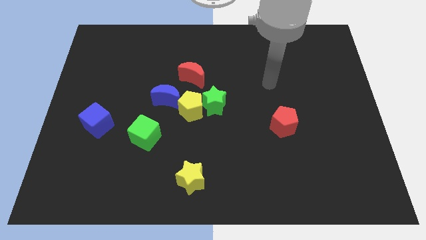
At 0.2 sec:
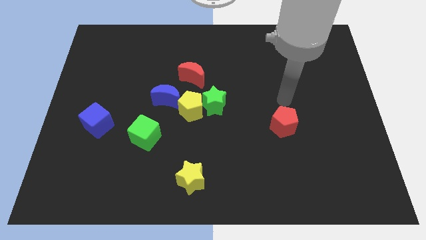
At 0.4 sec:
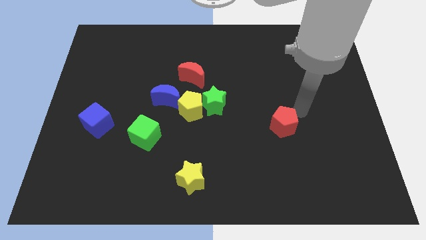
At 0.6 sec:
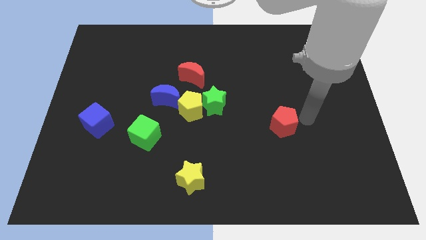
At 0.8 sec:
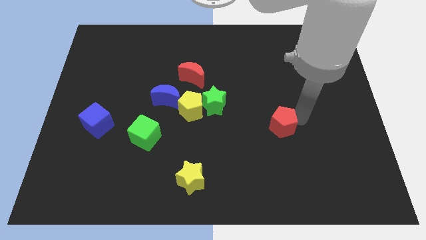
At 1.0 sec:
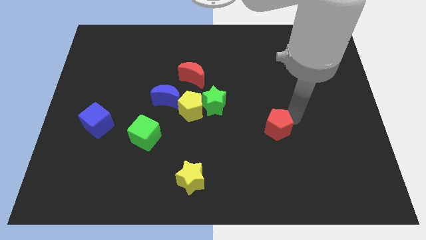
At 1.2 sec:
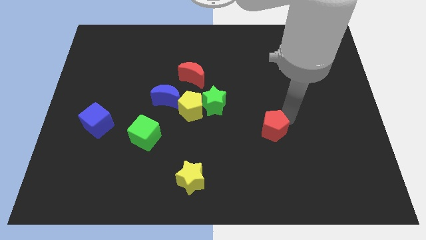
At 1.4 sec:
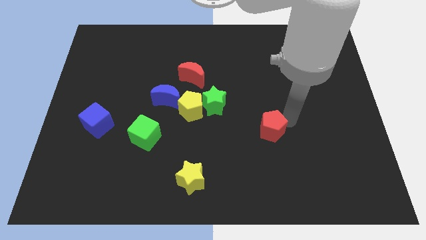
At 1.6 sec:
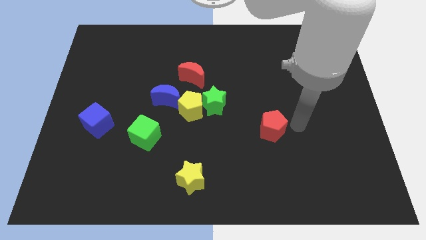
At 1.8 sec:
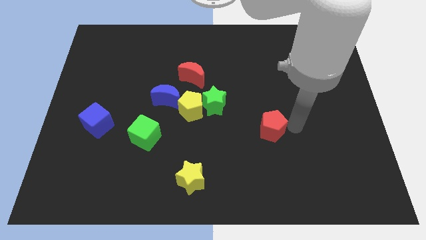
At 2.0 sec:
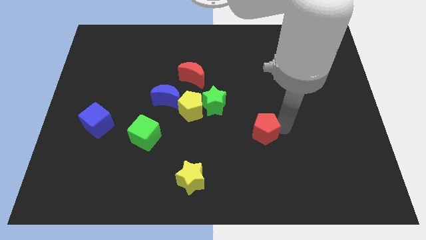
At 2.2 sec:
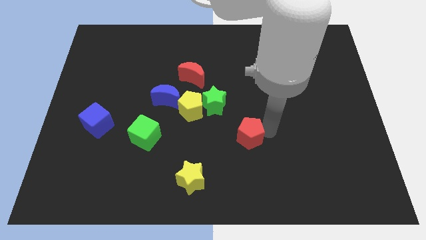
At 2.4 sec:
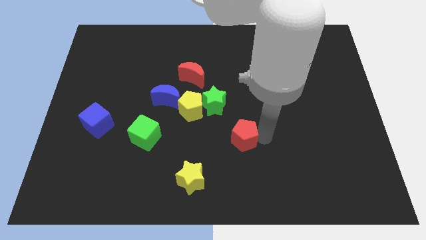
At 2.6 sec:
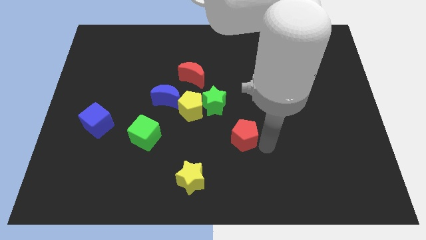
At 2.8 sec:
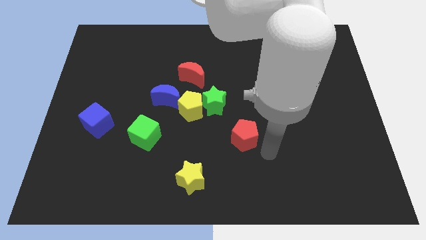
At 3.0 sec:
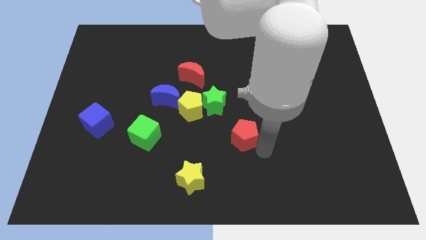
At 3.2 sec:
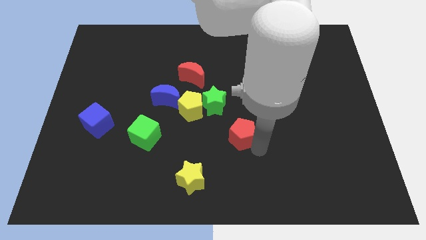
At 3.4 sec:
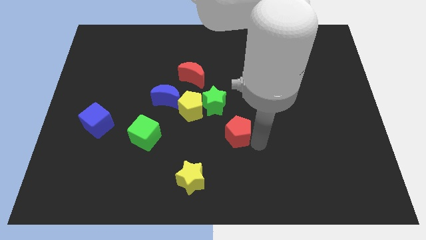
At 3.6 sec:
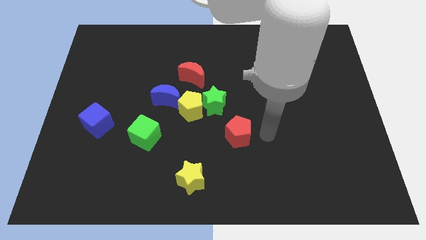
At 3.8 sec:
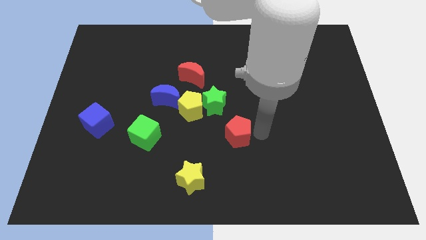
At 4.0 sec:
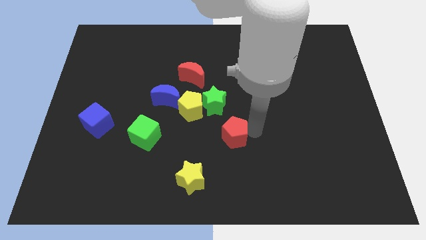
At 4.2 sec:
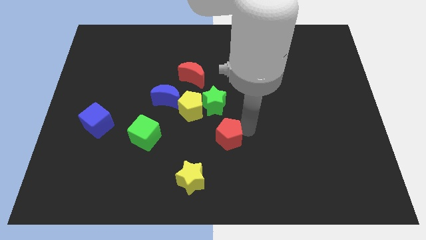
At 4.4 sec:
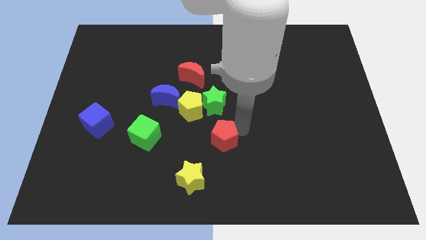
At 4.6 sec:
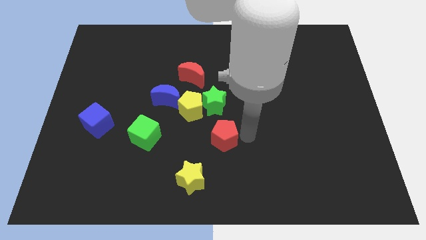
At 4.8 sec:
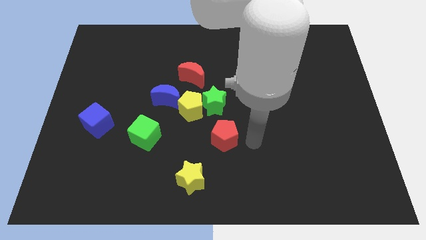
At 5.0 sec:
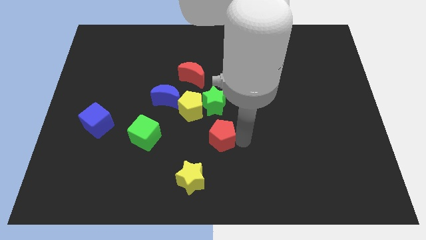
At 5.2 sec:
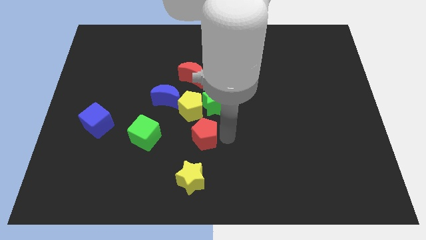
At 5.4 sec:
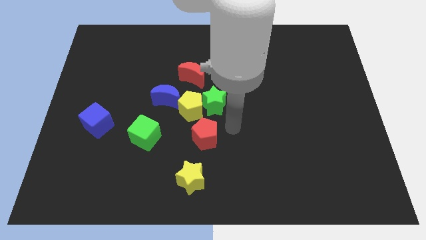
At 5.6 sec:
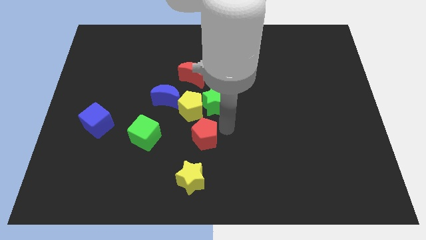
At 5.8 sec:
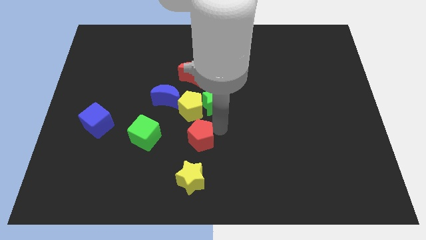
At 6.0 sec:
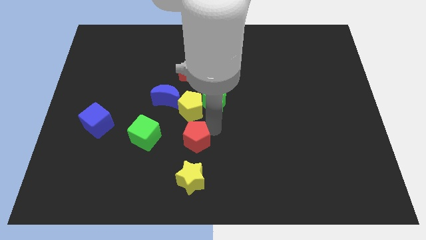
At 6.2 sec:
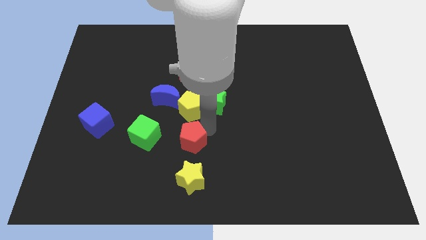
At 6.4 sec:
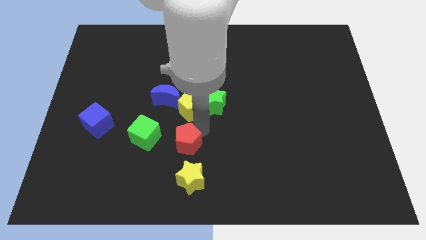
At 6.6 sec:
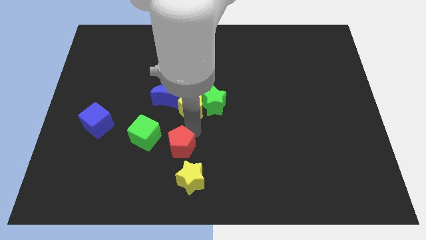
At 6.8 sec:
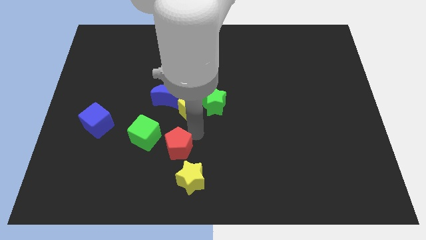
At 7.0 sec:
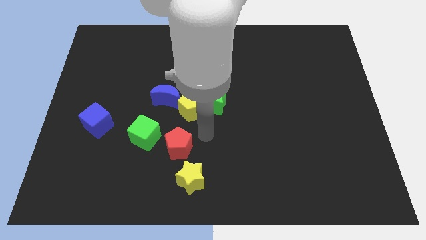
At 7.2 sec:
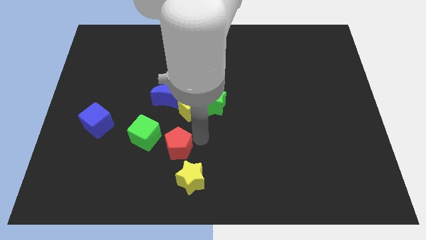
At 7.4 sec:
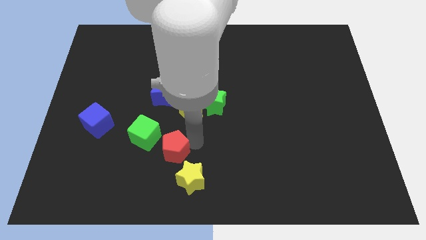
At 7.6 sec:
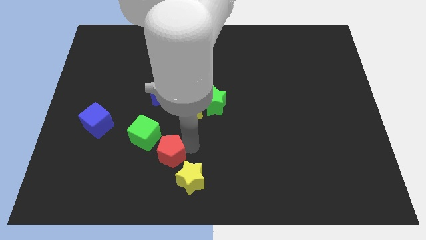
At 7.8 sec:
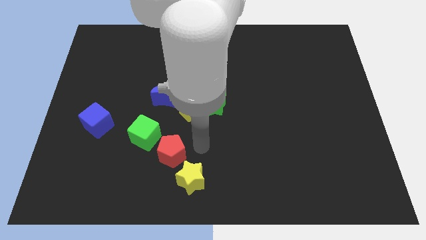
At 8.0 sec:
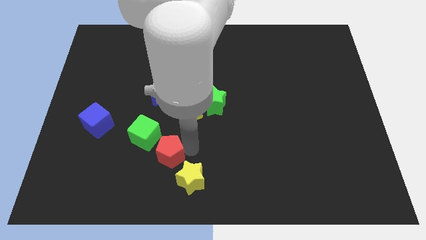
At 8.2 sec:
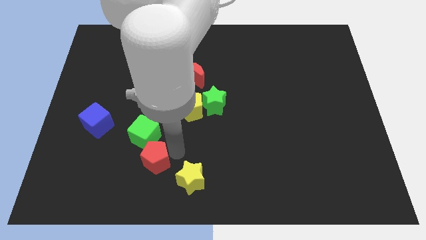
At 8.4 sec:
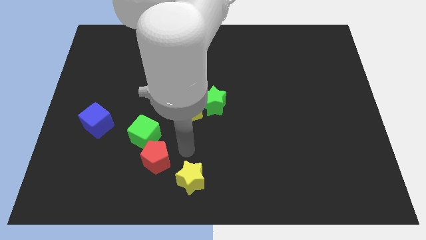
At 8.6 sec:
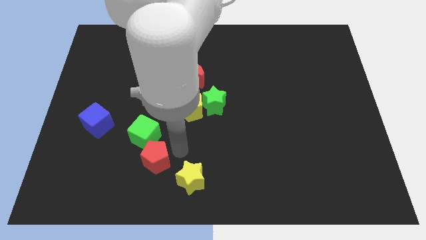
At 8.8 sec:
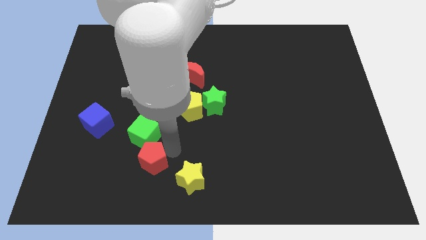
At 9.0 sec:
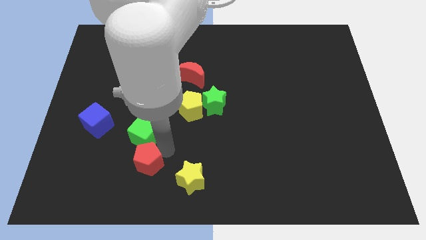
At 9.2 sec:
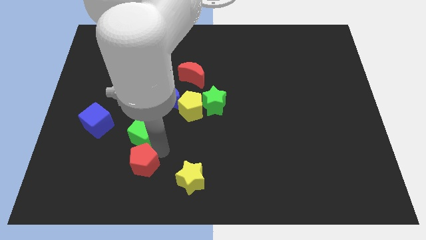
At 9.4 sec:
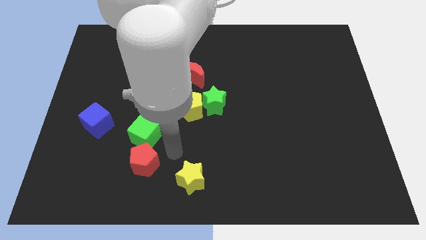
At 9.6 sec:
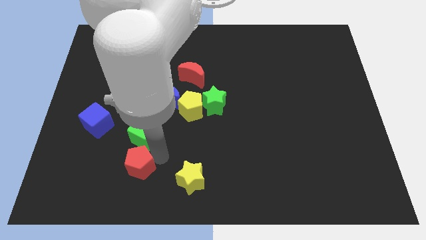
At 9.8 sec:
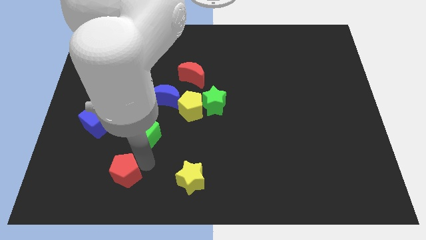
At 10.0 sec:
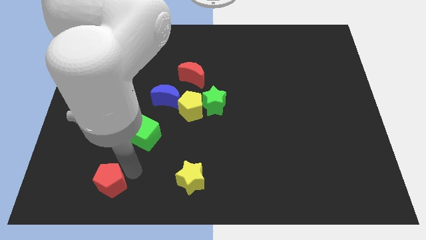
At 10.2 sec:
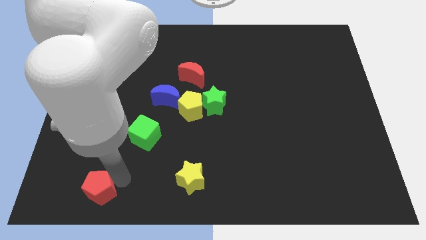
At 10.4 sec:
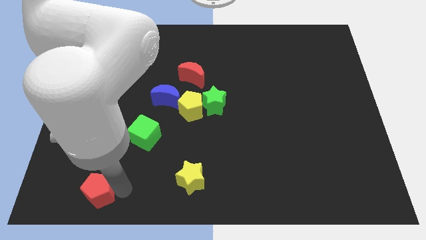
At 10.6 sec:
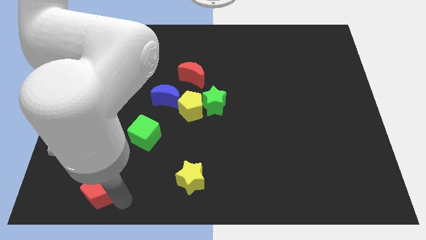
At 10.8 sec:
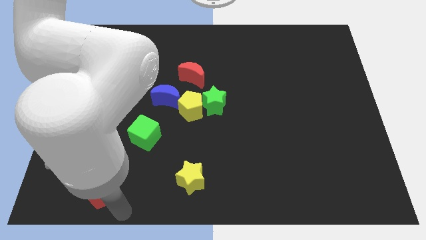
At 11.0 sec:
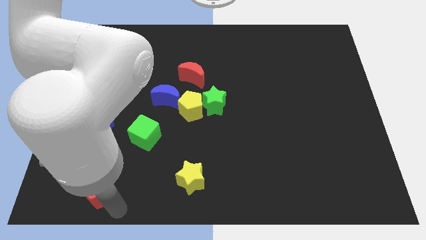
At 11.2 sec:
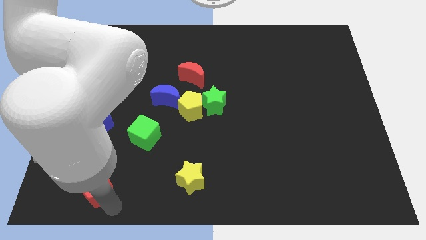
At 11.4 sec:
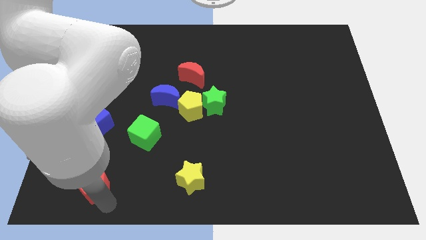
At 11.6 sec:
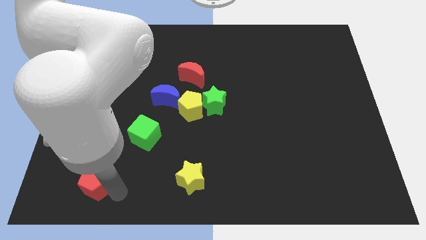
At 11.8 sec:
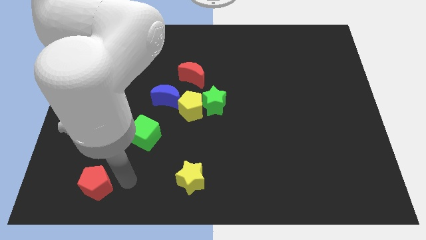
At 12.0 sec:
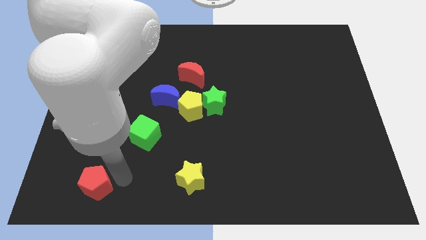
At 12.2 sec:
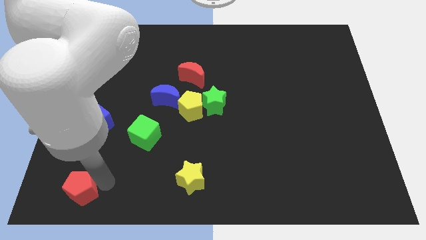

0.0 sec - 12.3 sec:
move the red pentagon to the bottom left of the board

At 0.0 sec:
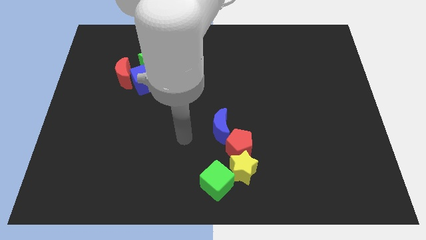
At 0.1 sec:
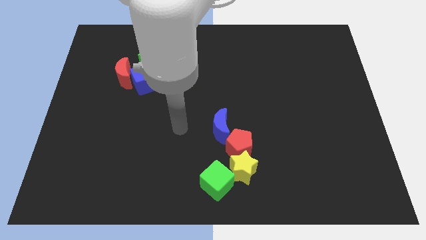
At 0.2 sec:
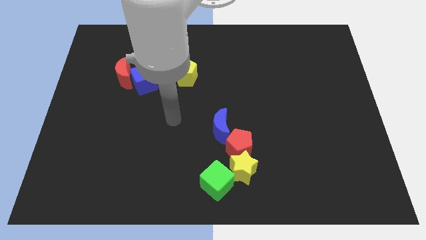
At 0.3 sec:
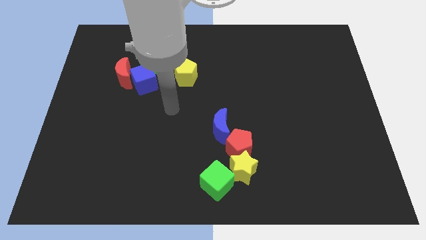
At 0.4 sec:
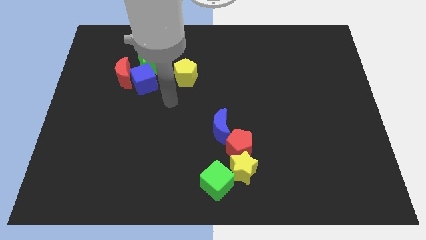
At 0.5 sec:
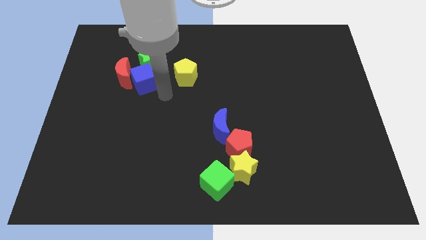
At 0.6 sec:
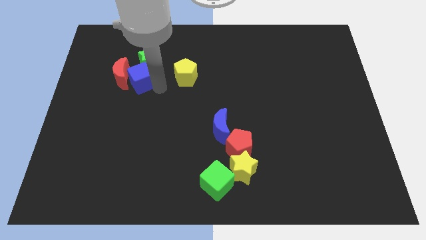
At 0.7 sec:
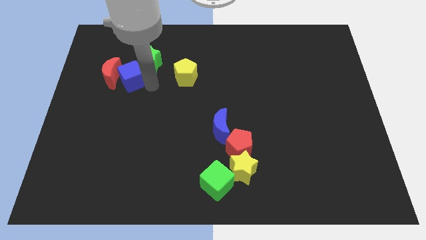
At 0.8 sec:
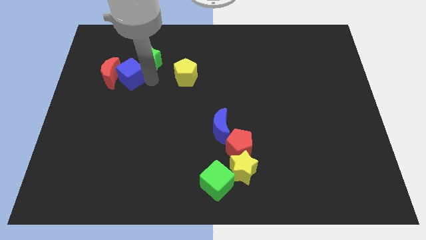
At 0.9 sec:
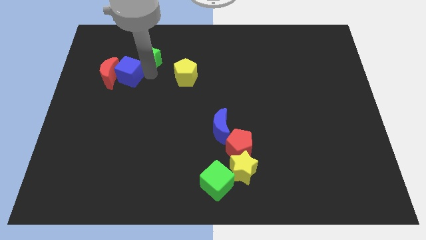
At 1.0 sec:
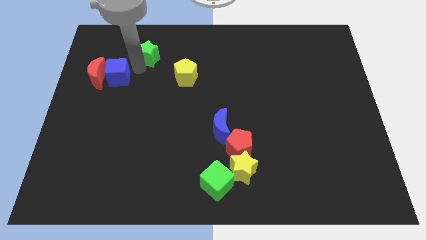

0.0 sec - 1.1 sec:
push the red moon to the center left
